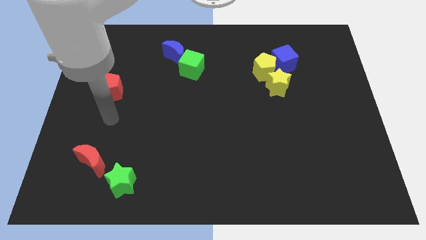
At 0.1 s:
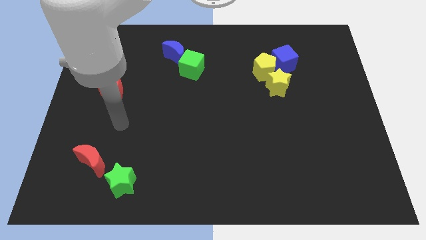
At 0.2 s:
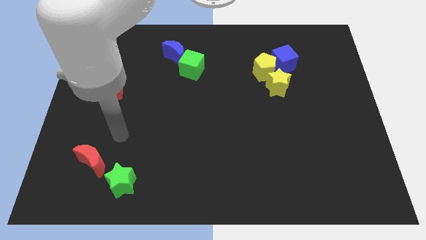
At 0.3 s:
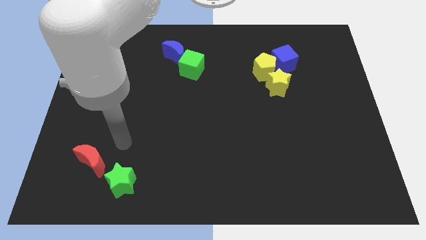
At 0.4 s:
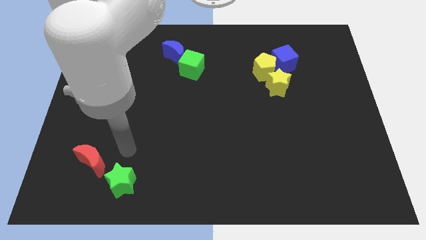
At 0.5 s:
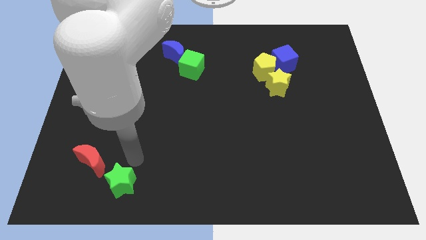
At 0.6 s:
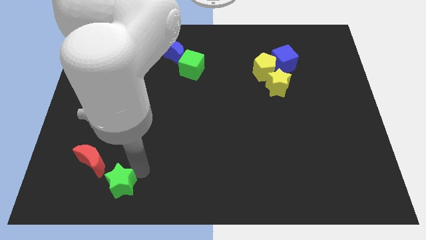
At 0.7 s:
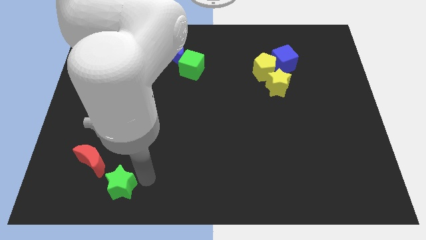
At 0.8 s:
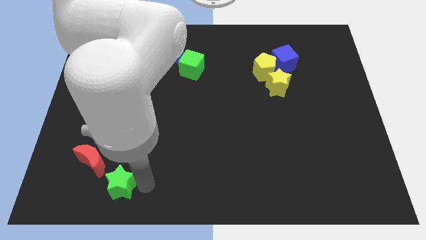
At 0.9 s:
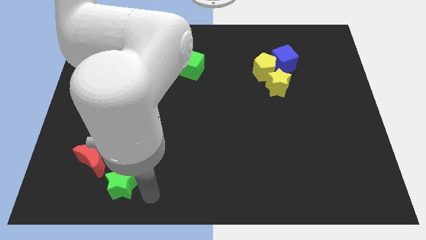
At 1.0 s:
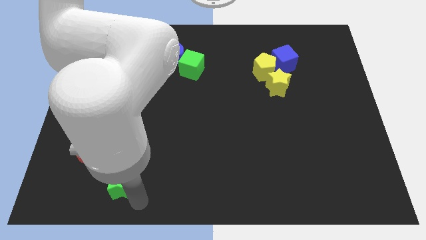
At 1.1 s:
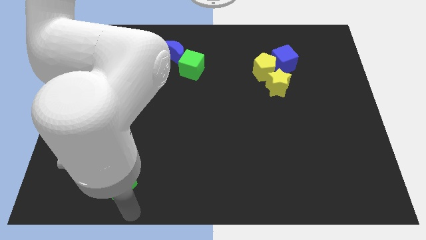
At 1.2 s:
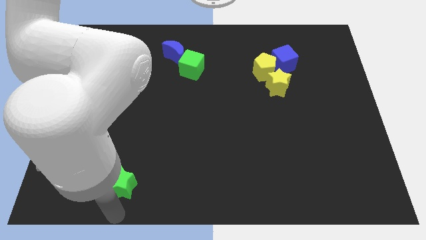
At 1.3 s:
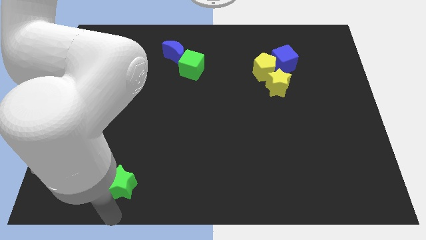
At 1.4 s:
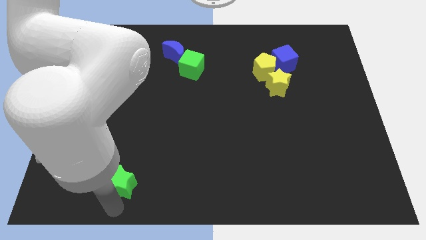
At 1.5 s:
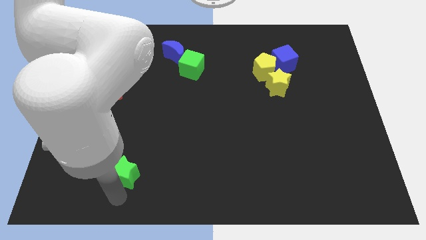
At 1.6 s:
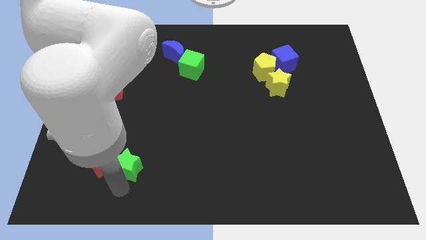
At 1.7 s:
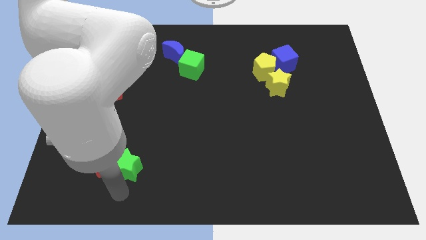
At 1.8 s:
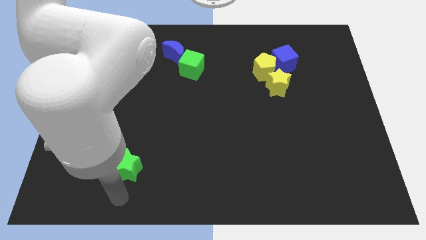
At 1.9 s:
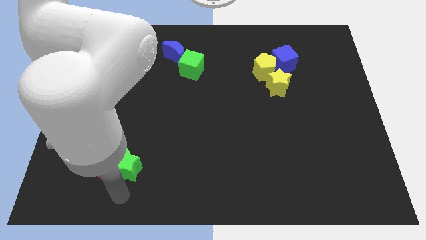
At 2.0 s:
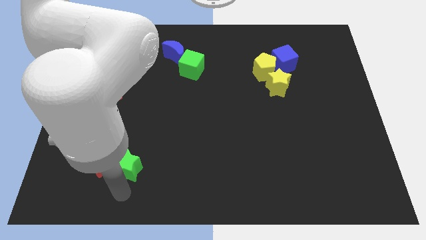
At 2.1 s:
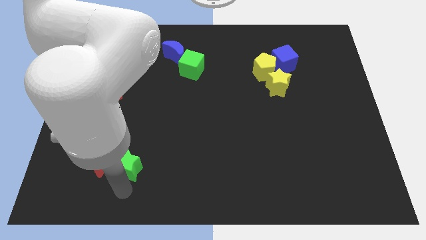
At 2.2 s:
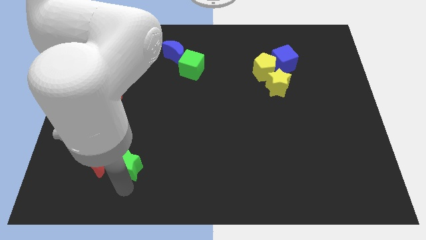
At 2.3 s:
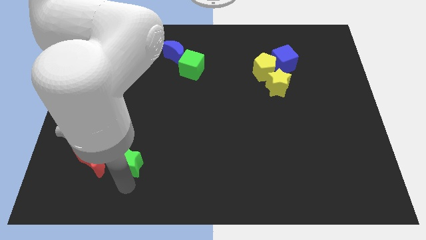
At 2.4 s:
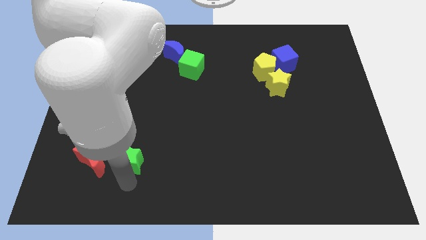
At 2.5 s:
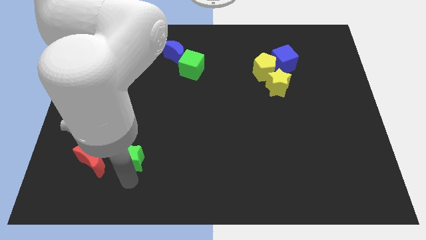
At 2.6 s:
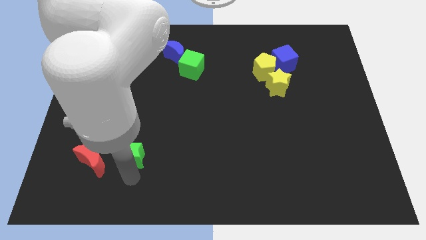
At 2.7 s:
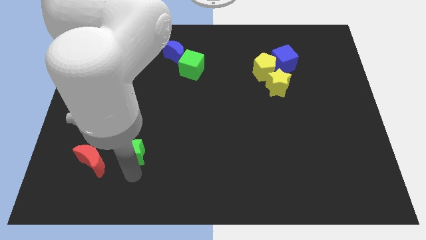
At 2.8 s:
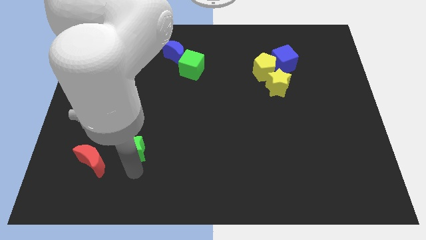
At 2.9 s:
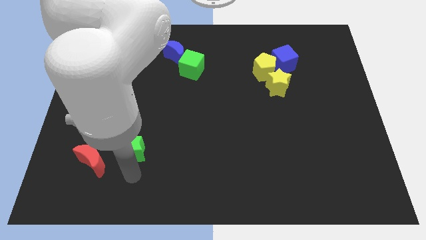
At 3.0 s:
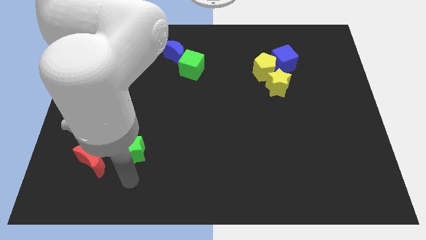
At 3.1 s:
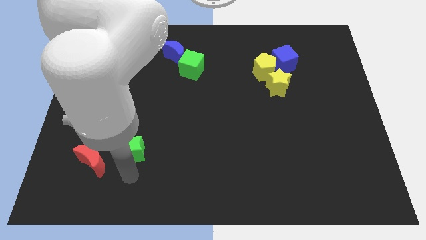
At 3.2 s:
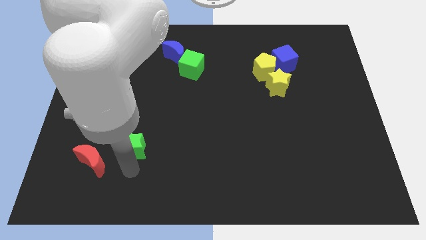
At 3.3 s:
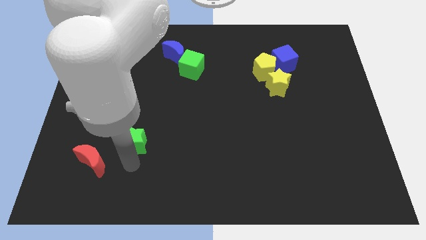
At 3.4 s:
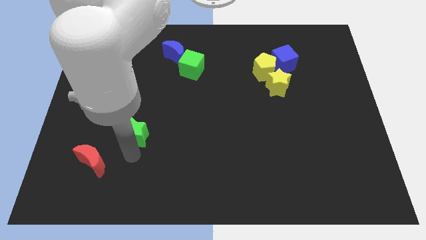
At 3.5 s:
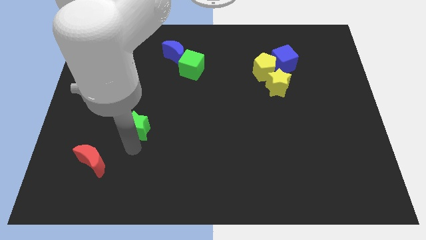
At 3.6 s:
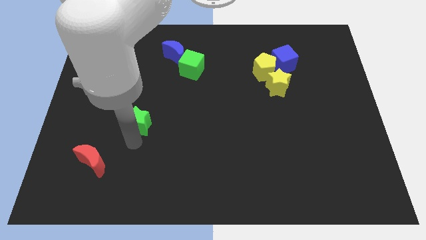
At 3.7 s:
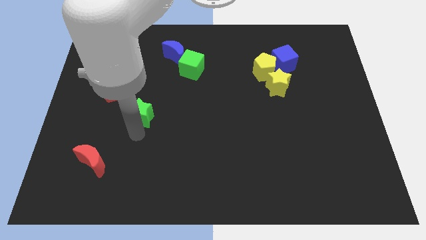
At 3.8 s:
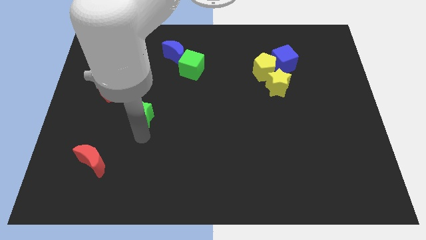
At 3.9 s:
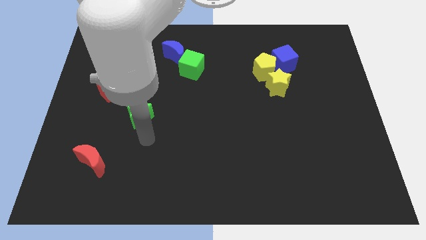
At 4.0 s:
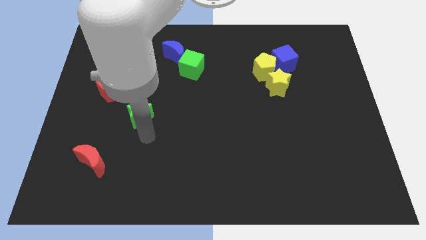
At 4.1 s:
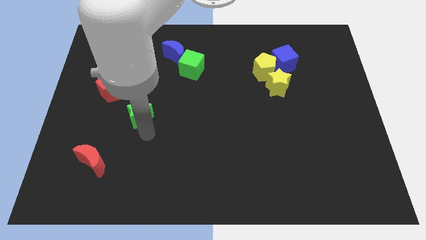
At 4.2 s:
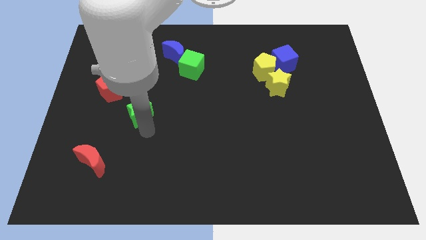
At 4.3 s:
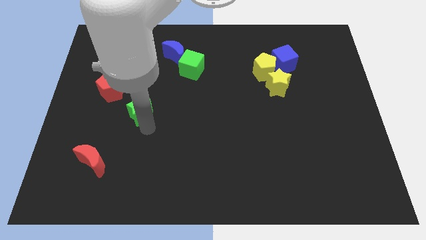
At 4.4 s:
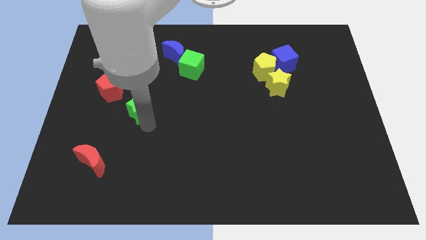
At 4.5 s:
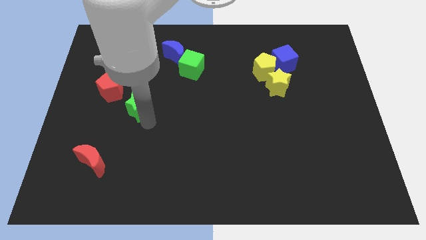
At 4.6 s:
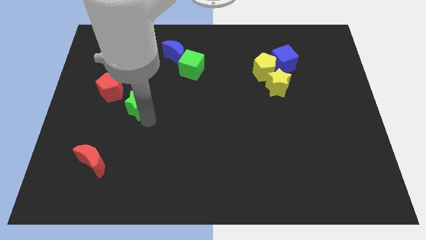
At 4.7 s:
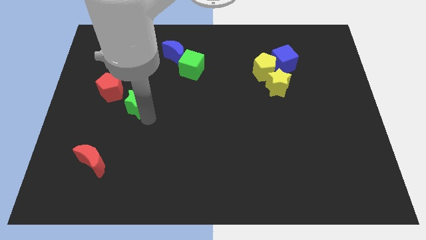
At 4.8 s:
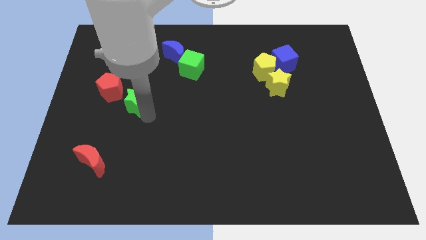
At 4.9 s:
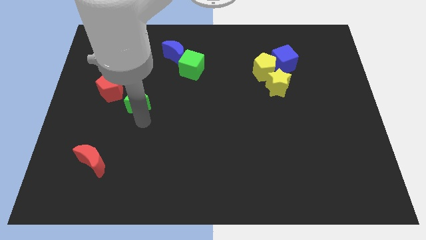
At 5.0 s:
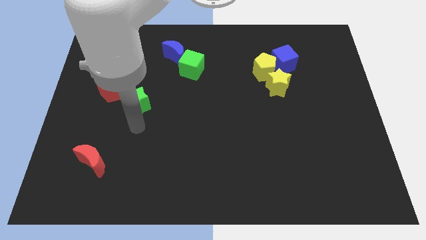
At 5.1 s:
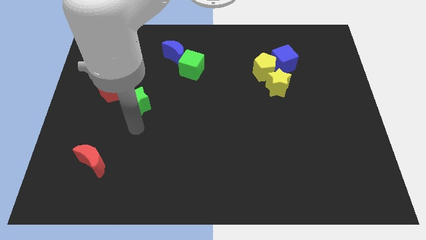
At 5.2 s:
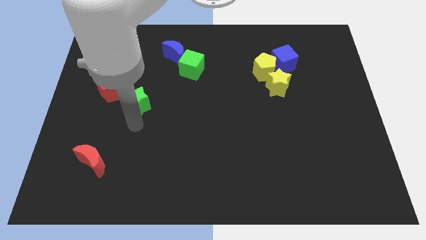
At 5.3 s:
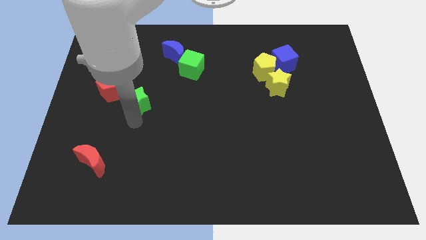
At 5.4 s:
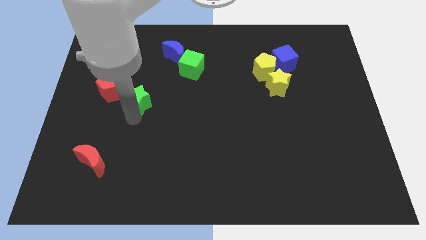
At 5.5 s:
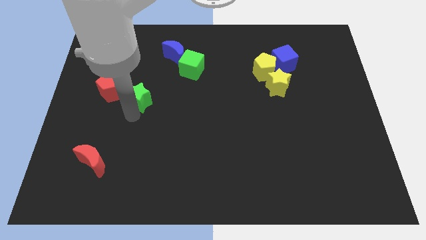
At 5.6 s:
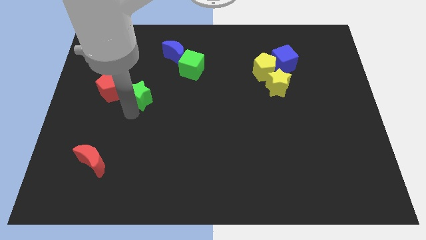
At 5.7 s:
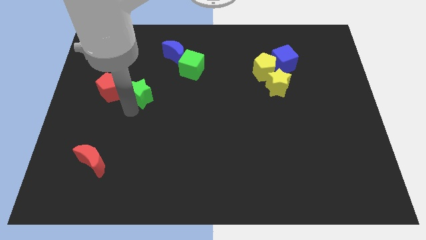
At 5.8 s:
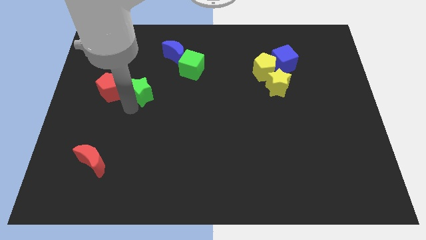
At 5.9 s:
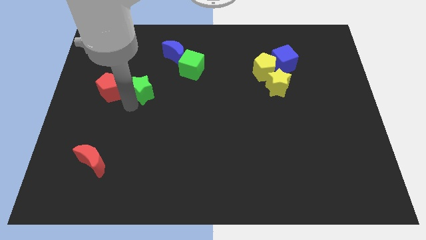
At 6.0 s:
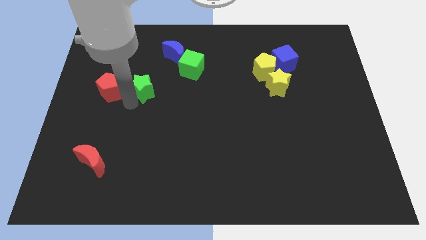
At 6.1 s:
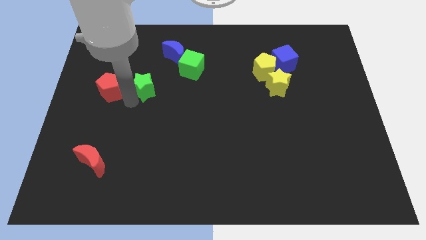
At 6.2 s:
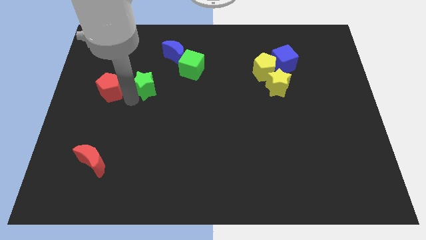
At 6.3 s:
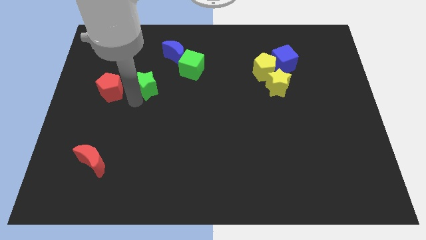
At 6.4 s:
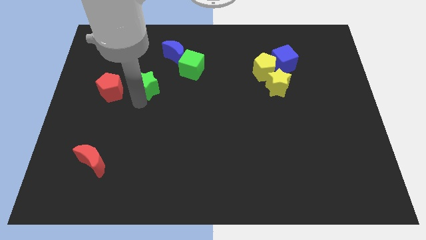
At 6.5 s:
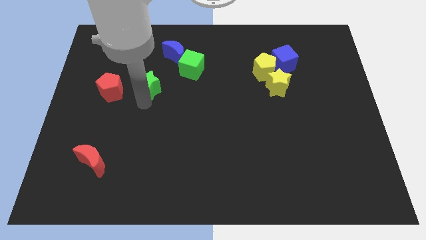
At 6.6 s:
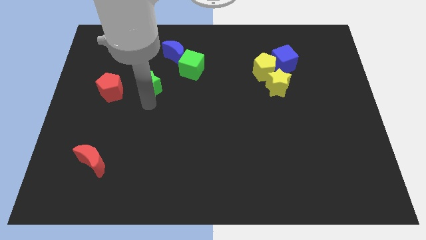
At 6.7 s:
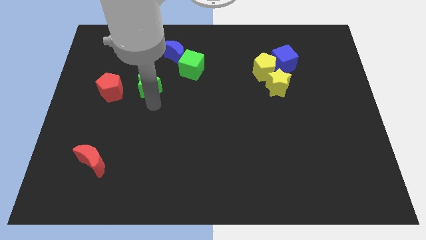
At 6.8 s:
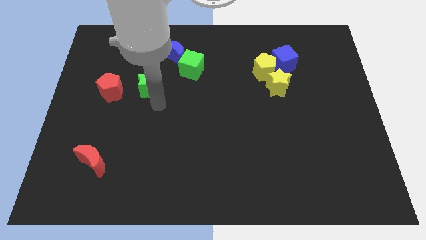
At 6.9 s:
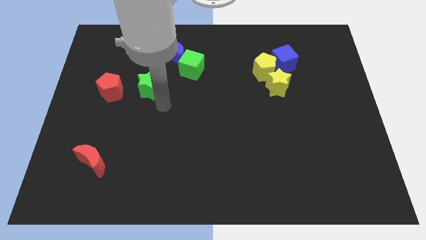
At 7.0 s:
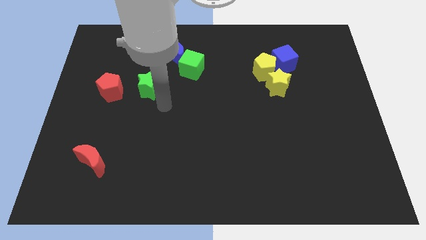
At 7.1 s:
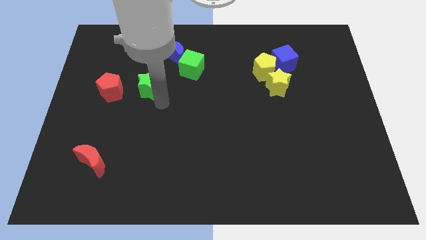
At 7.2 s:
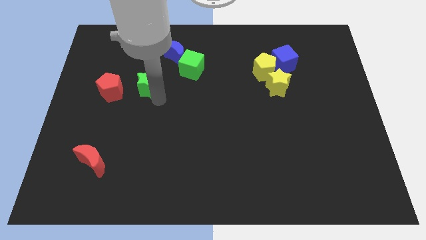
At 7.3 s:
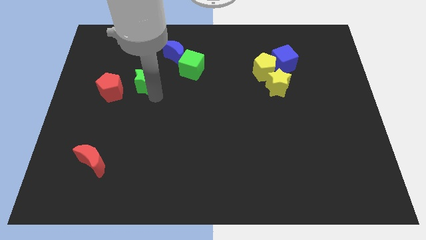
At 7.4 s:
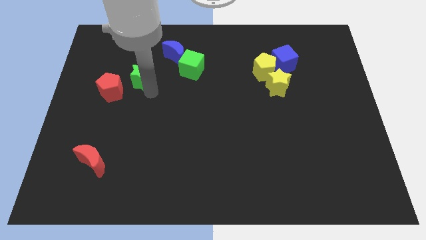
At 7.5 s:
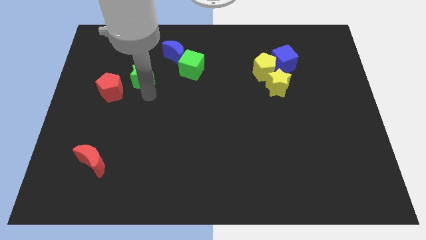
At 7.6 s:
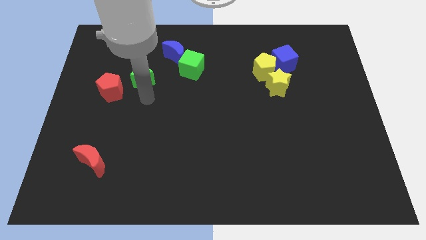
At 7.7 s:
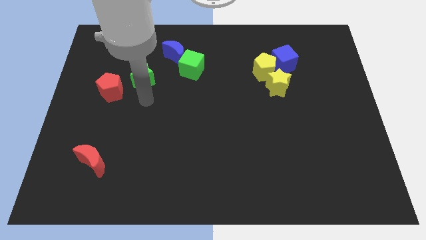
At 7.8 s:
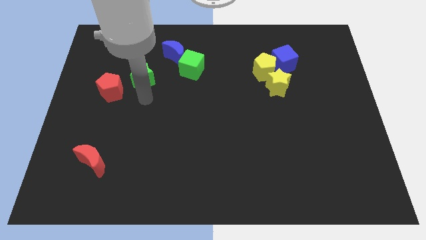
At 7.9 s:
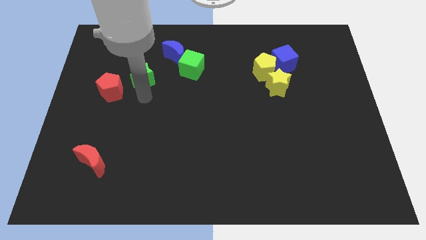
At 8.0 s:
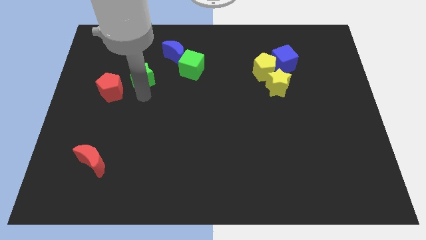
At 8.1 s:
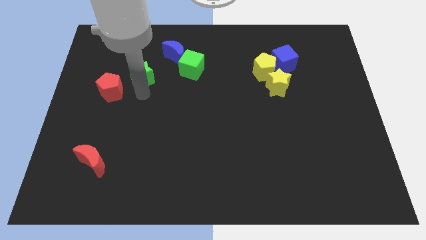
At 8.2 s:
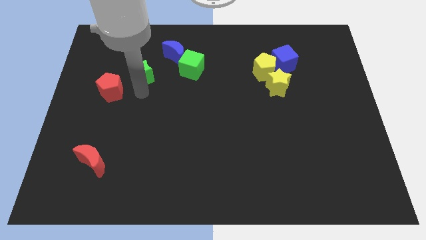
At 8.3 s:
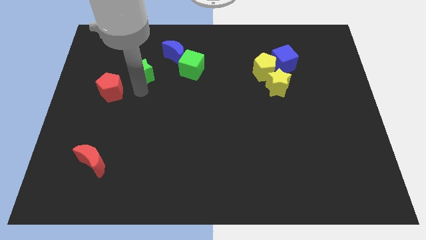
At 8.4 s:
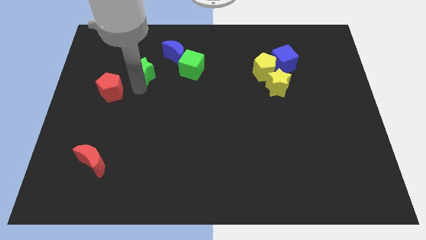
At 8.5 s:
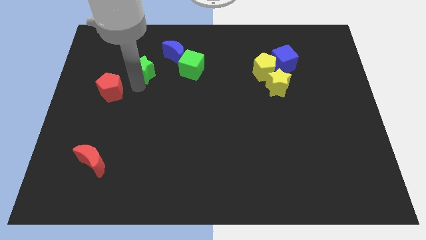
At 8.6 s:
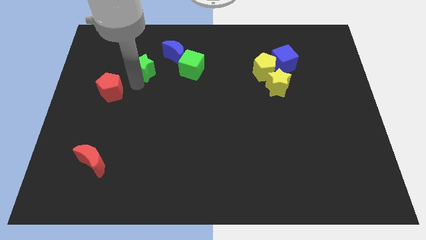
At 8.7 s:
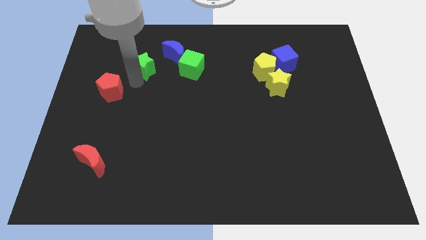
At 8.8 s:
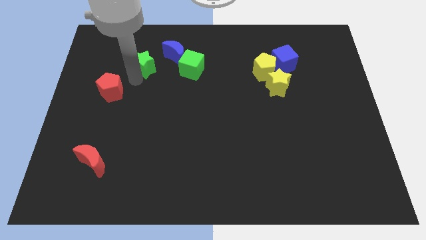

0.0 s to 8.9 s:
slide the green star left of the blue moon
